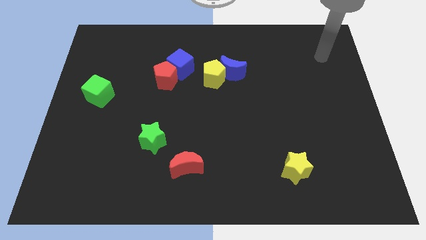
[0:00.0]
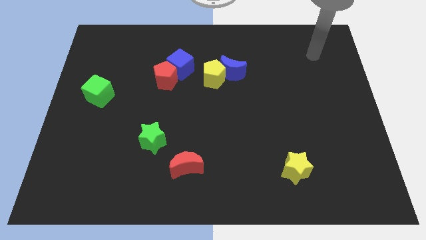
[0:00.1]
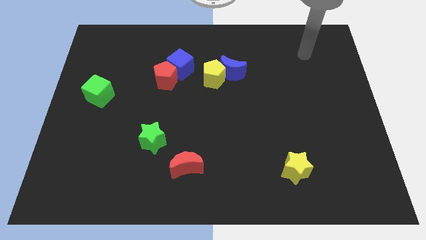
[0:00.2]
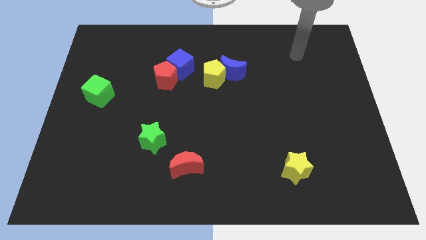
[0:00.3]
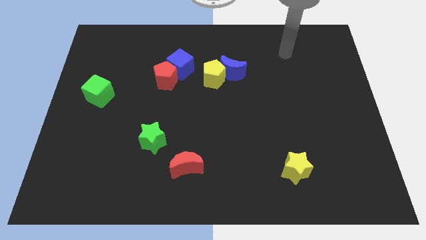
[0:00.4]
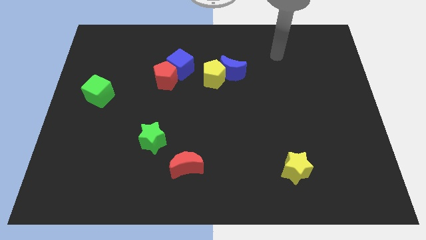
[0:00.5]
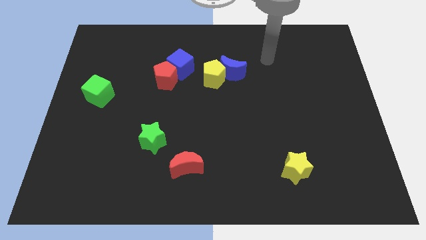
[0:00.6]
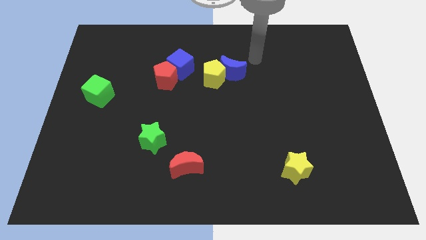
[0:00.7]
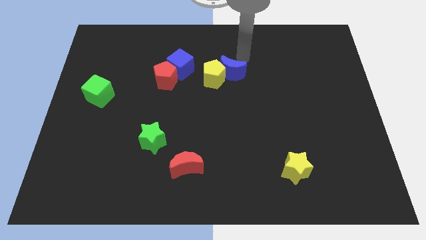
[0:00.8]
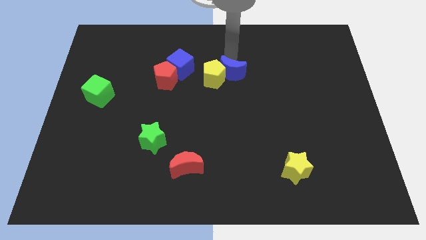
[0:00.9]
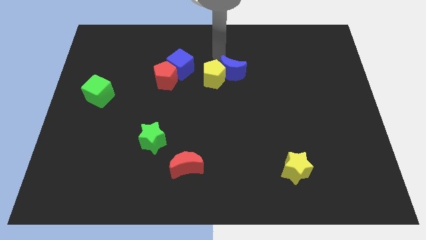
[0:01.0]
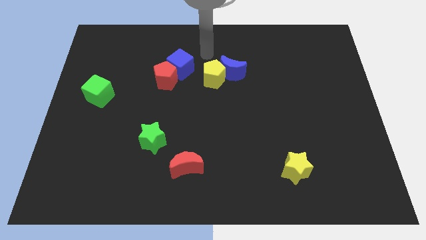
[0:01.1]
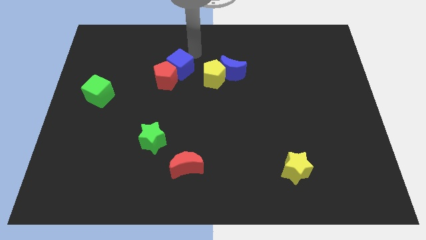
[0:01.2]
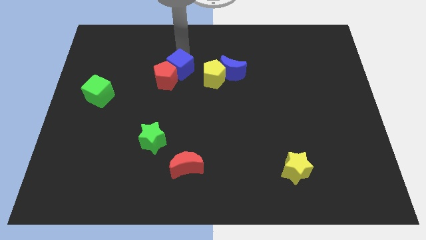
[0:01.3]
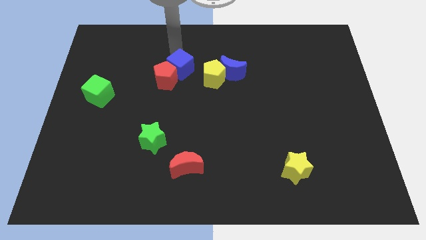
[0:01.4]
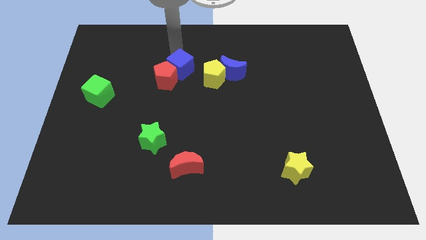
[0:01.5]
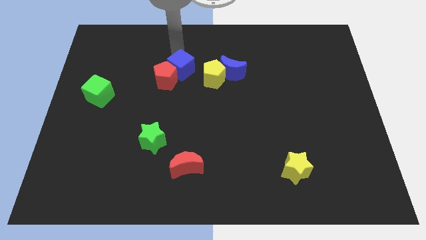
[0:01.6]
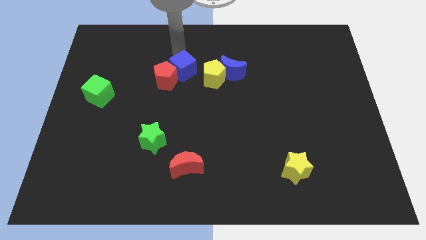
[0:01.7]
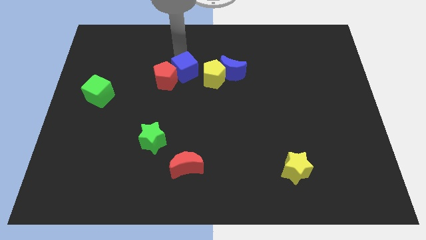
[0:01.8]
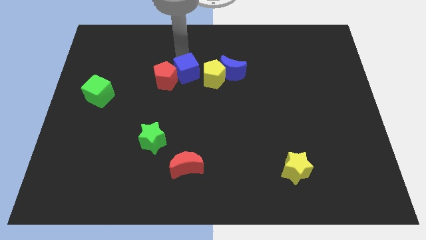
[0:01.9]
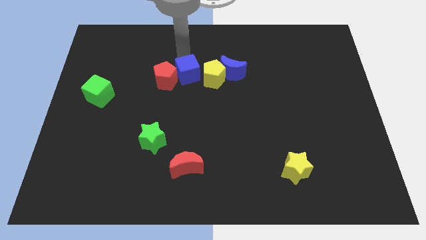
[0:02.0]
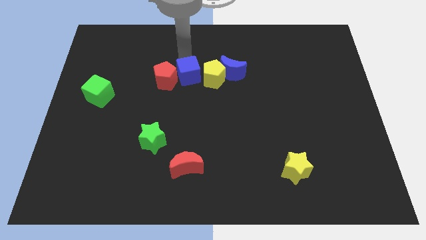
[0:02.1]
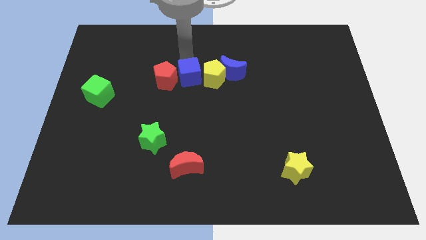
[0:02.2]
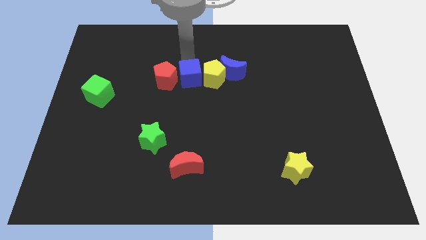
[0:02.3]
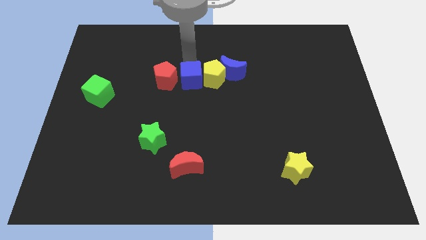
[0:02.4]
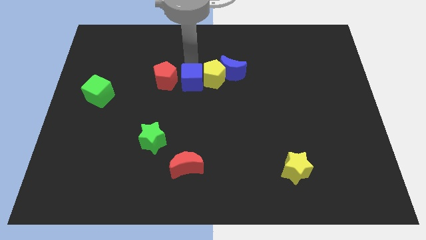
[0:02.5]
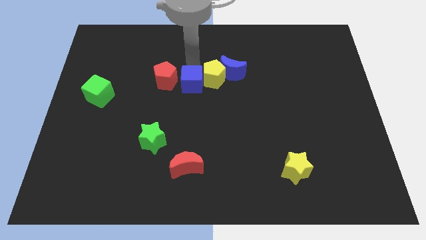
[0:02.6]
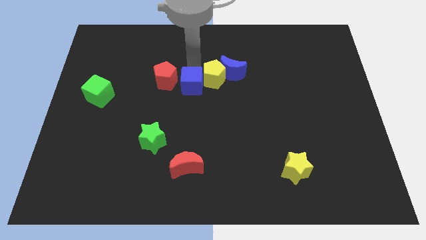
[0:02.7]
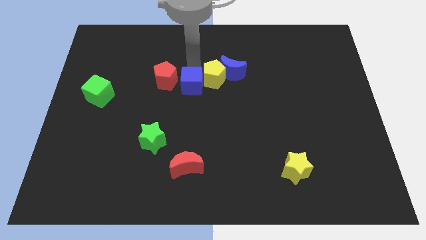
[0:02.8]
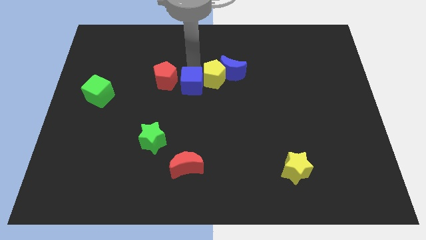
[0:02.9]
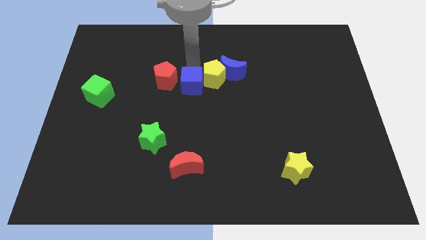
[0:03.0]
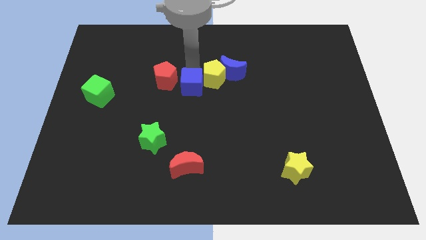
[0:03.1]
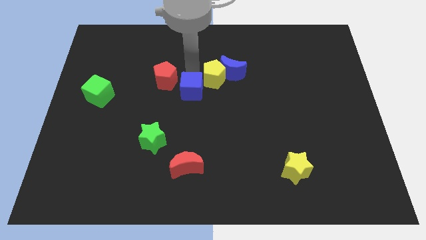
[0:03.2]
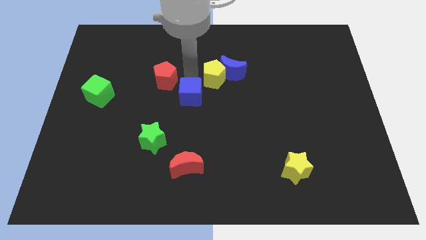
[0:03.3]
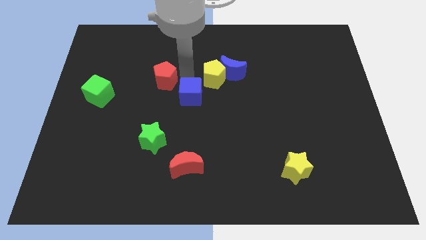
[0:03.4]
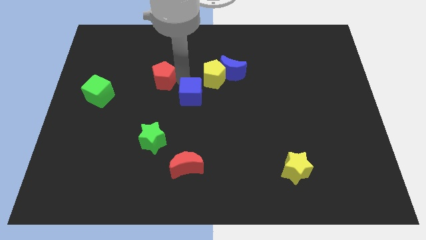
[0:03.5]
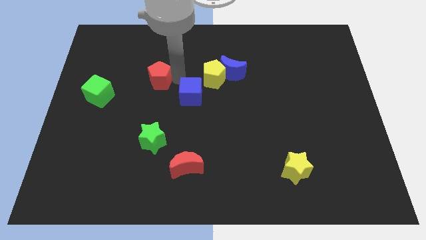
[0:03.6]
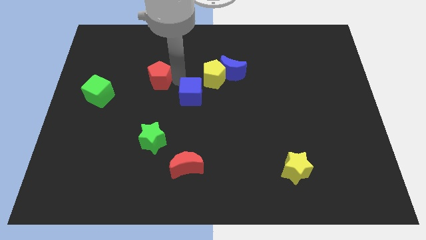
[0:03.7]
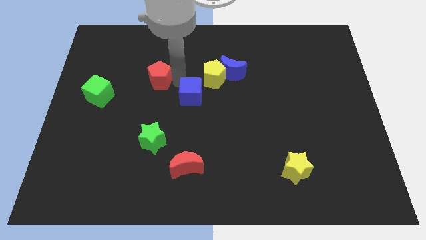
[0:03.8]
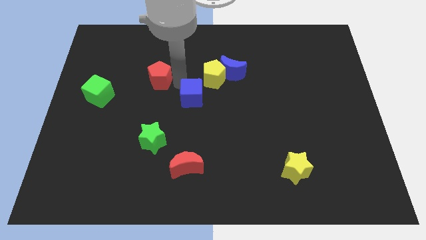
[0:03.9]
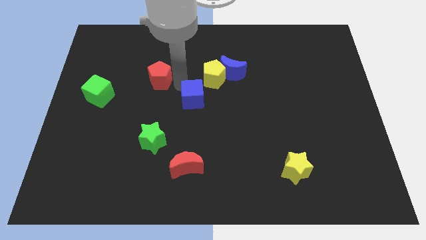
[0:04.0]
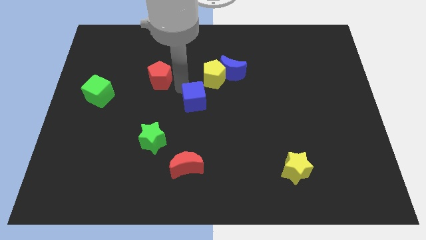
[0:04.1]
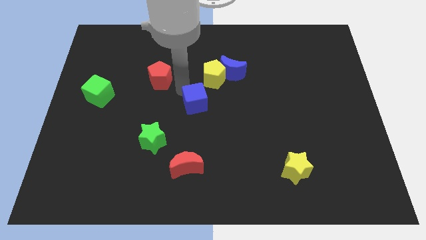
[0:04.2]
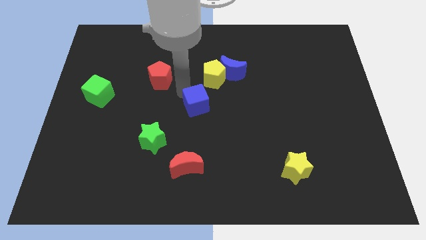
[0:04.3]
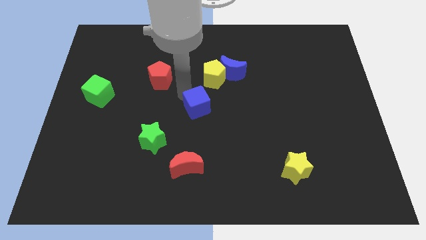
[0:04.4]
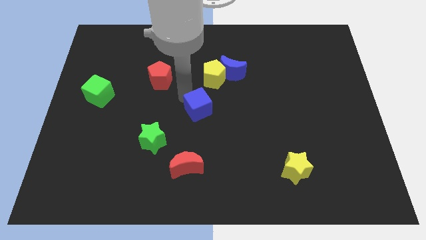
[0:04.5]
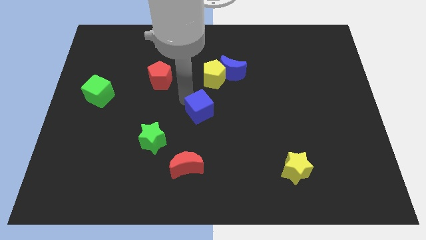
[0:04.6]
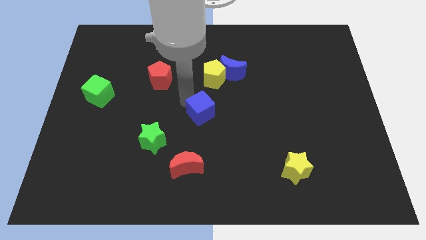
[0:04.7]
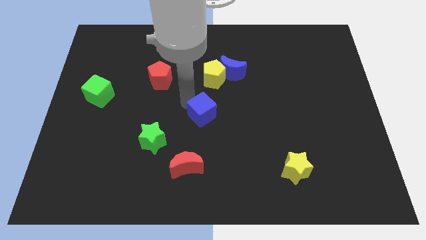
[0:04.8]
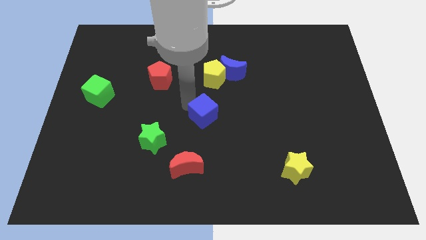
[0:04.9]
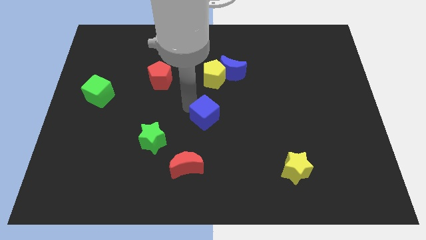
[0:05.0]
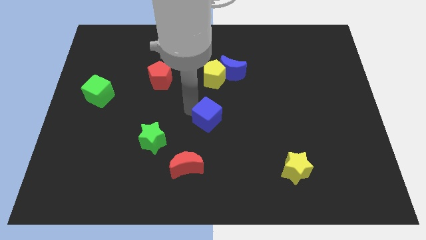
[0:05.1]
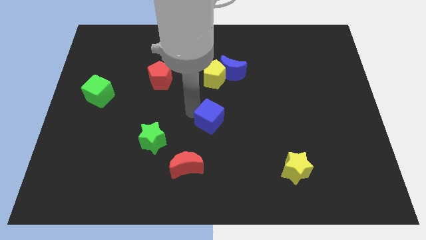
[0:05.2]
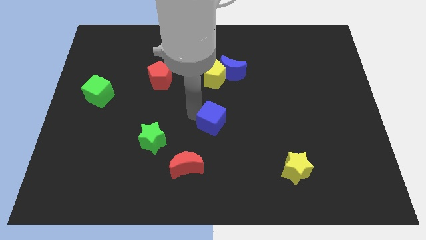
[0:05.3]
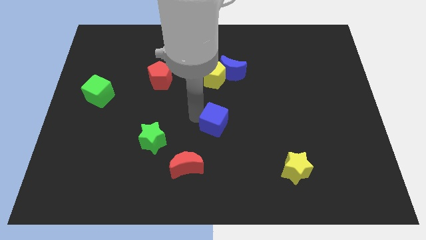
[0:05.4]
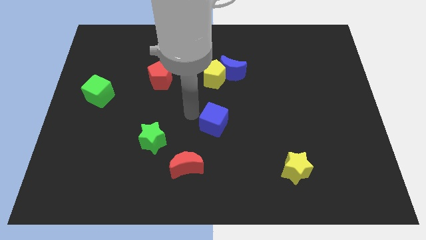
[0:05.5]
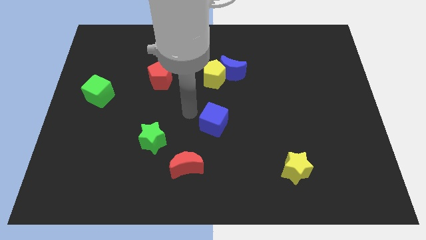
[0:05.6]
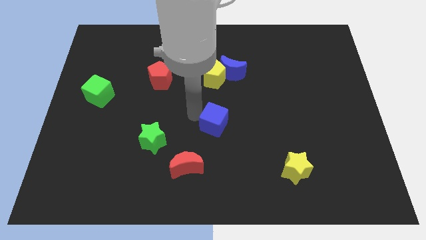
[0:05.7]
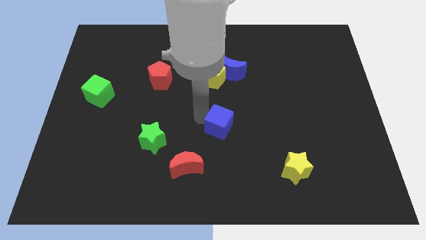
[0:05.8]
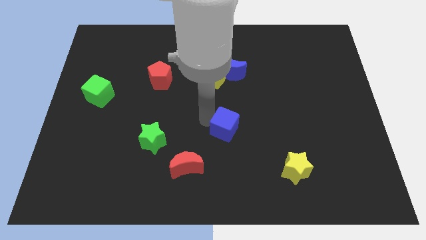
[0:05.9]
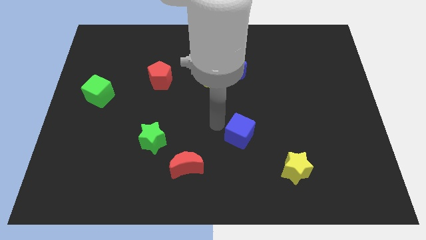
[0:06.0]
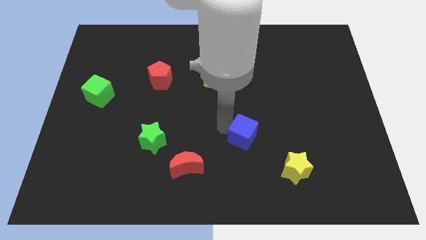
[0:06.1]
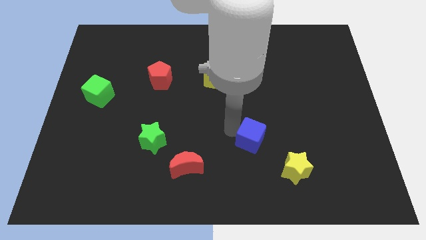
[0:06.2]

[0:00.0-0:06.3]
push the blue cube to the top left side of the yellow star

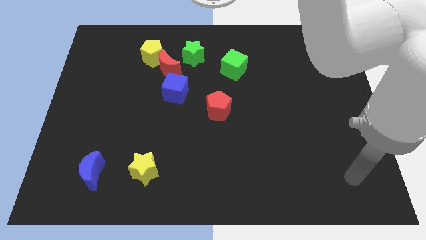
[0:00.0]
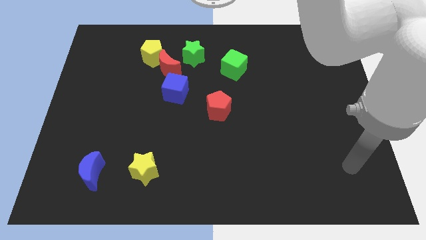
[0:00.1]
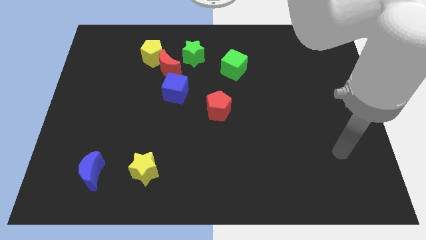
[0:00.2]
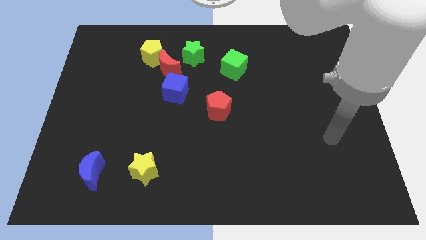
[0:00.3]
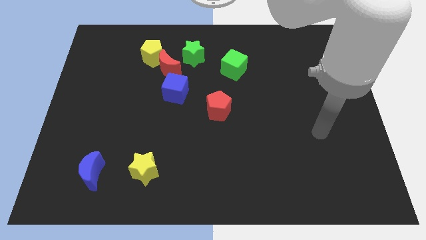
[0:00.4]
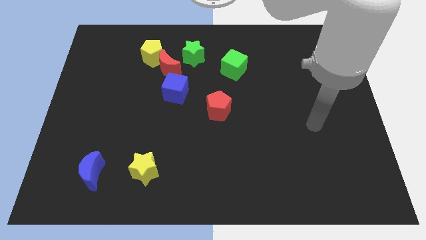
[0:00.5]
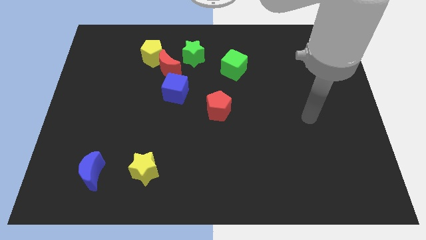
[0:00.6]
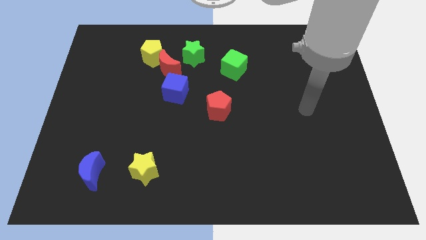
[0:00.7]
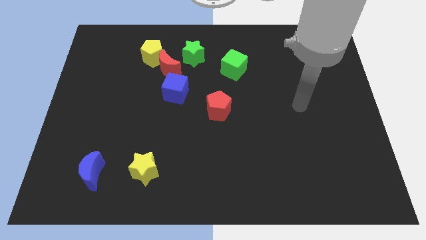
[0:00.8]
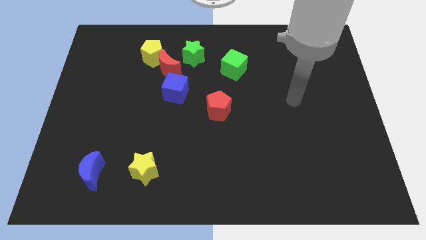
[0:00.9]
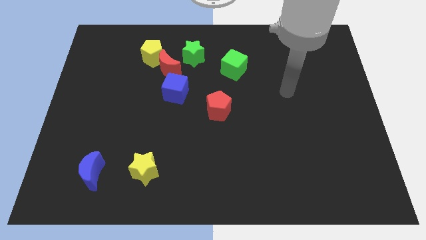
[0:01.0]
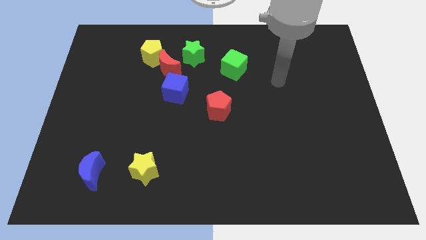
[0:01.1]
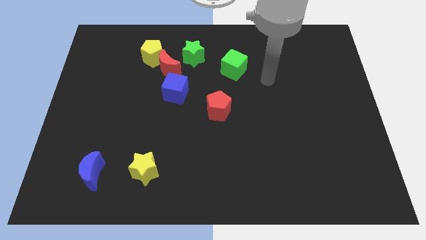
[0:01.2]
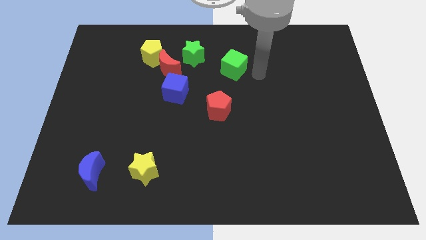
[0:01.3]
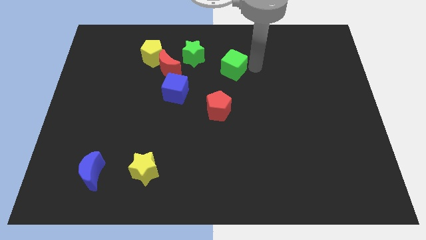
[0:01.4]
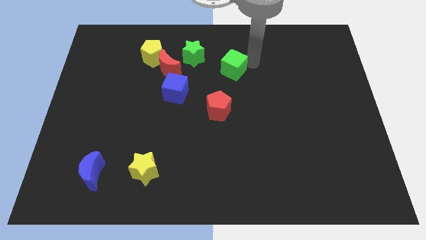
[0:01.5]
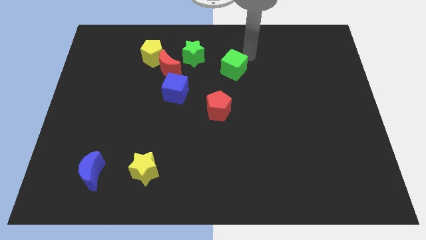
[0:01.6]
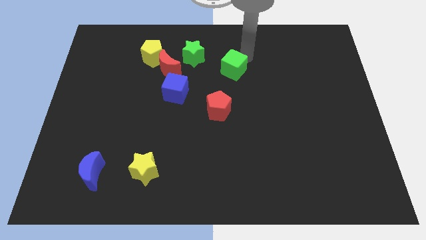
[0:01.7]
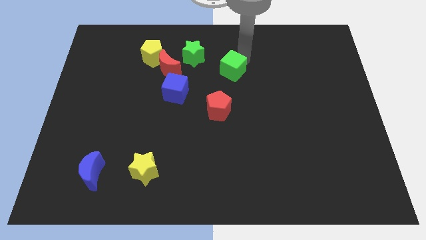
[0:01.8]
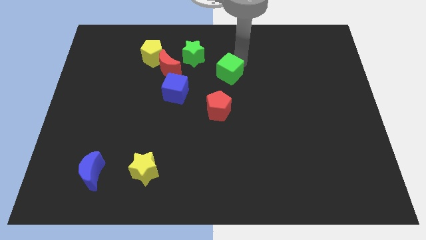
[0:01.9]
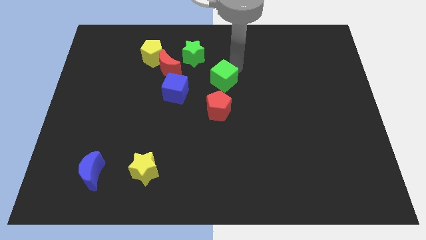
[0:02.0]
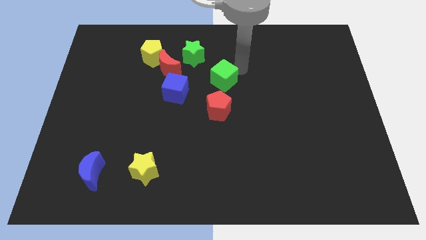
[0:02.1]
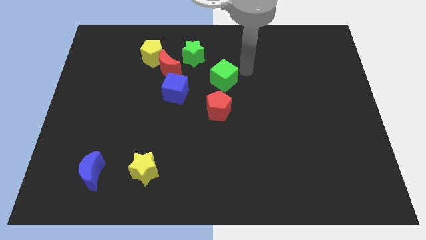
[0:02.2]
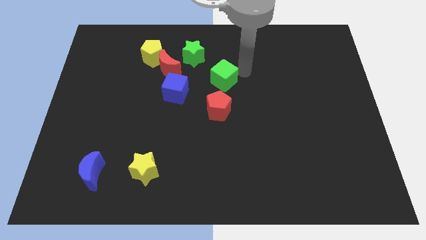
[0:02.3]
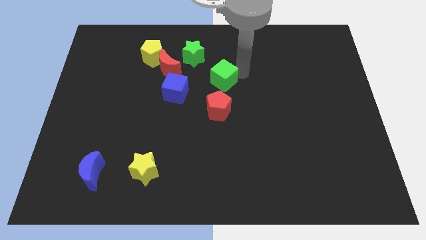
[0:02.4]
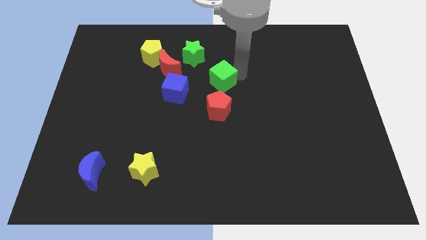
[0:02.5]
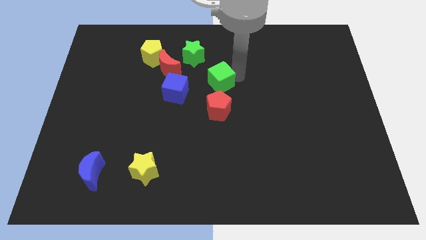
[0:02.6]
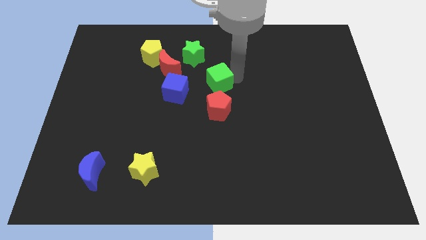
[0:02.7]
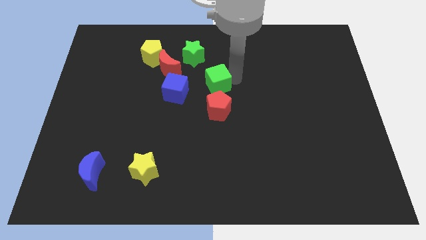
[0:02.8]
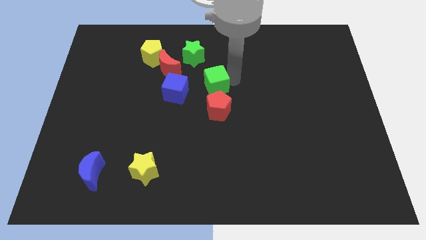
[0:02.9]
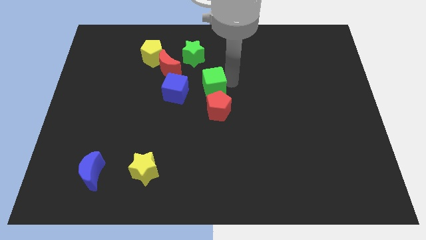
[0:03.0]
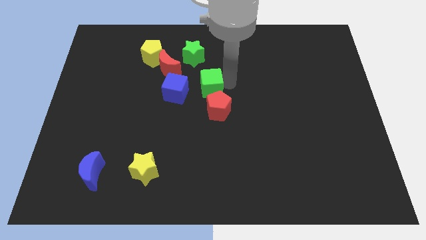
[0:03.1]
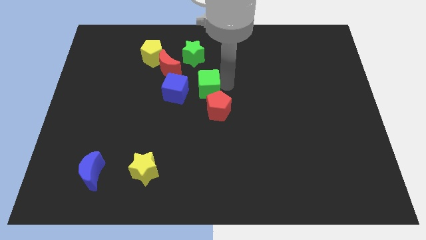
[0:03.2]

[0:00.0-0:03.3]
push the green cube to the bottom right side of the red moon
